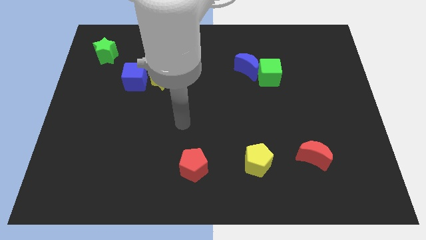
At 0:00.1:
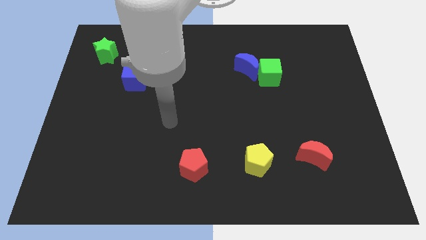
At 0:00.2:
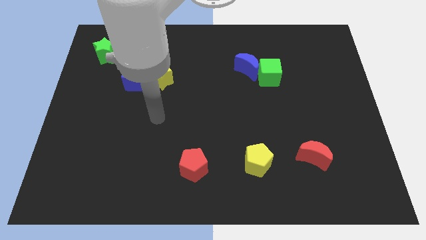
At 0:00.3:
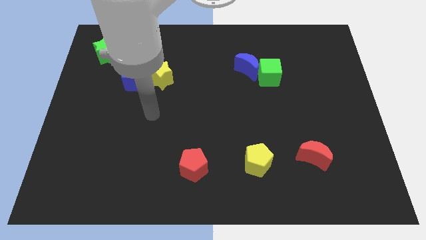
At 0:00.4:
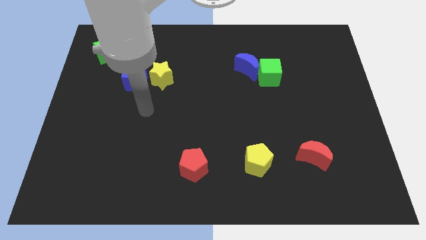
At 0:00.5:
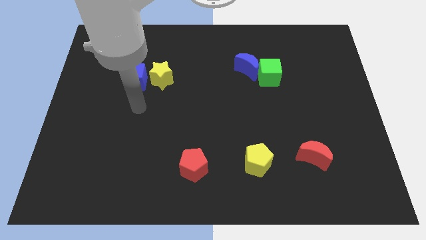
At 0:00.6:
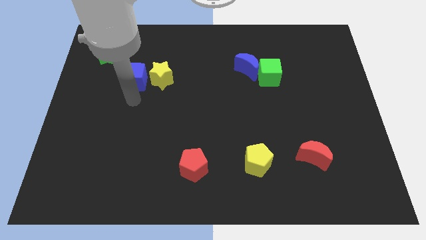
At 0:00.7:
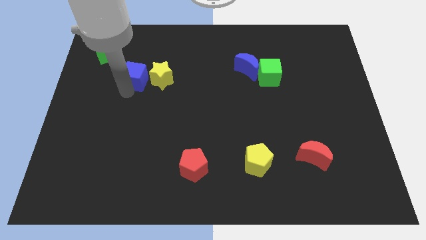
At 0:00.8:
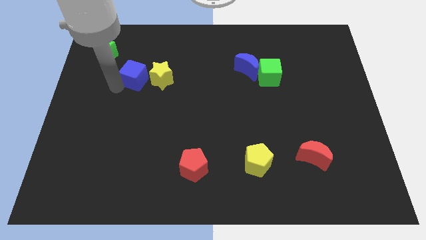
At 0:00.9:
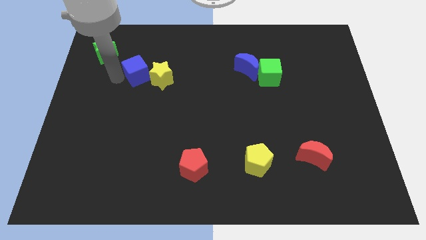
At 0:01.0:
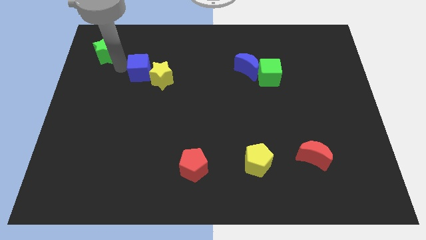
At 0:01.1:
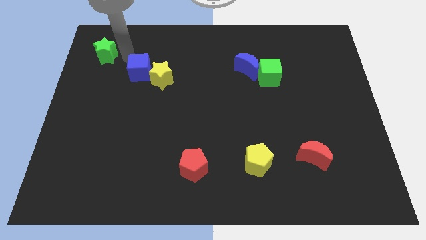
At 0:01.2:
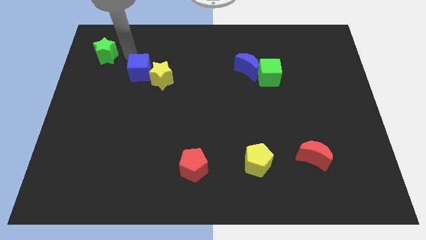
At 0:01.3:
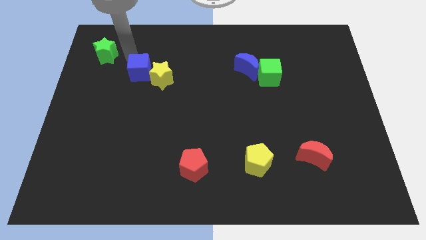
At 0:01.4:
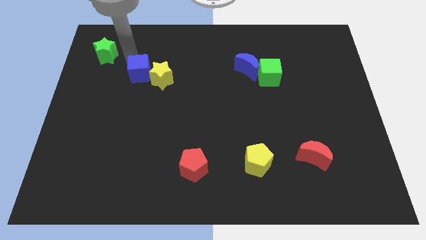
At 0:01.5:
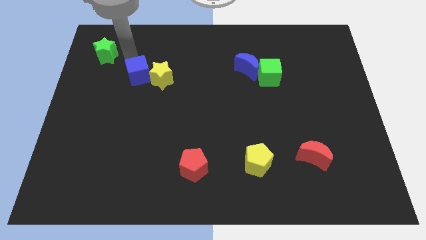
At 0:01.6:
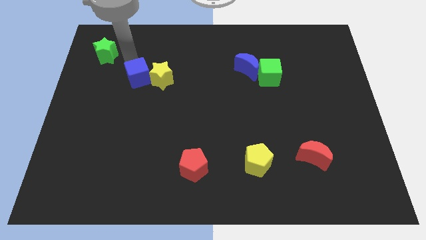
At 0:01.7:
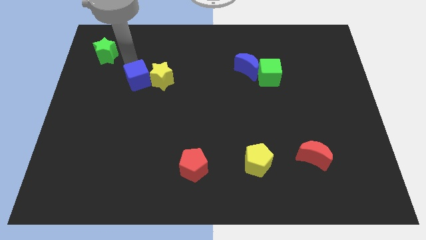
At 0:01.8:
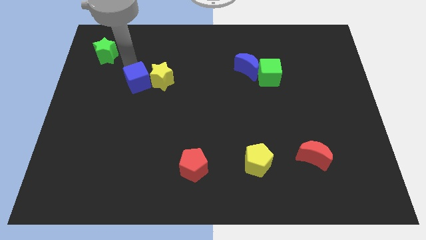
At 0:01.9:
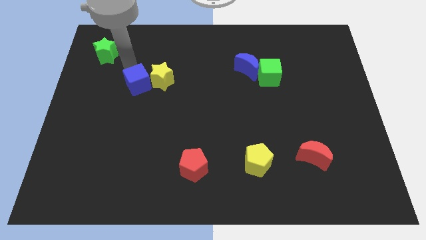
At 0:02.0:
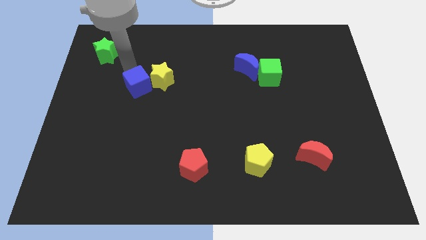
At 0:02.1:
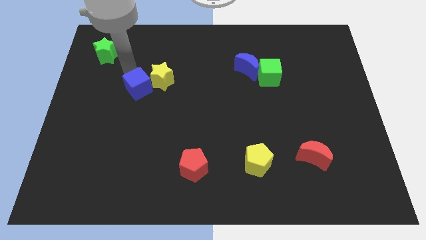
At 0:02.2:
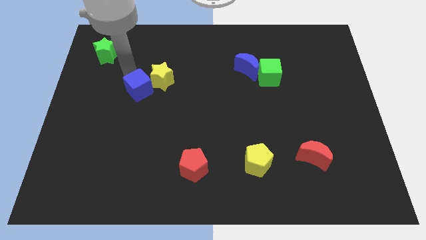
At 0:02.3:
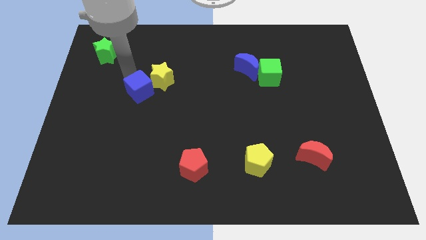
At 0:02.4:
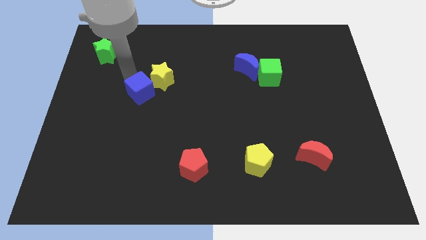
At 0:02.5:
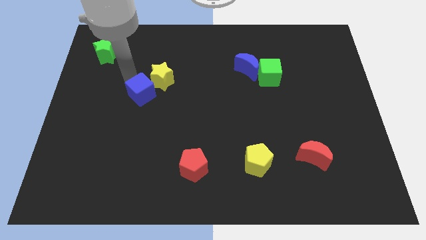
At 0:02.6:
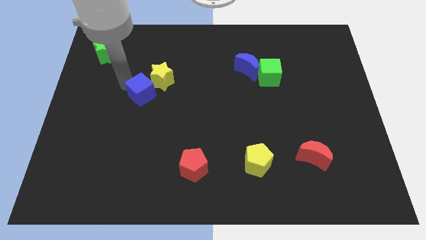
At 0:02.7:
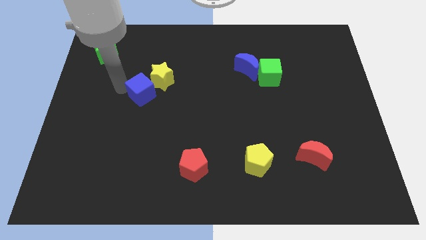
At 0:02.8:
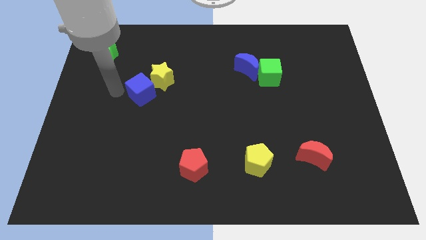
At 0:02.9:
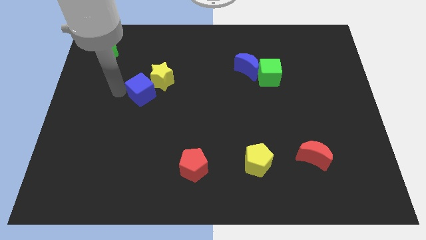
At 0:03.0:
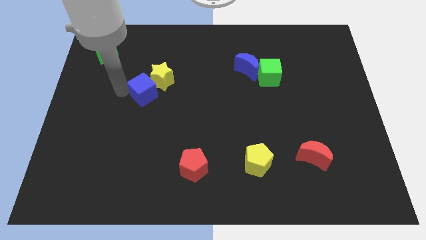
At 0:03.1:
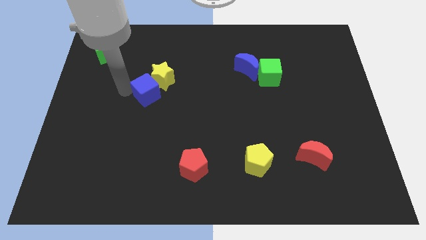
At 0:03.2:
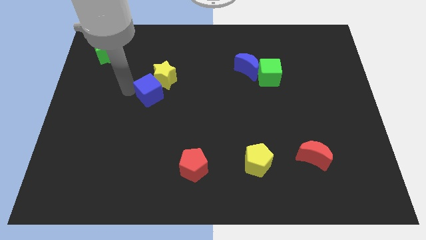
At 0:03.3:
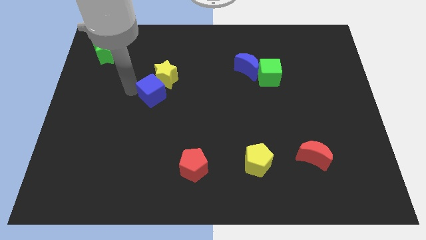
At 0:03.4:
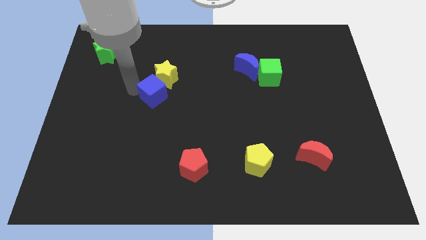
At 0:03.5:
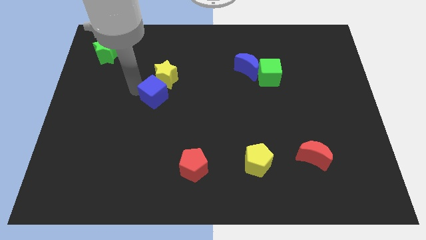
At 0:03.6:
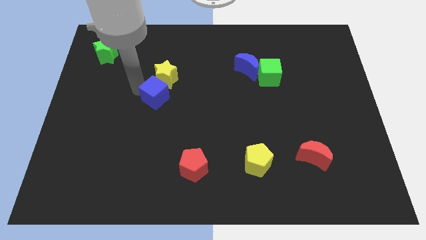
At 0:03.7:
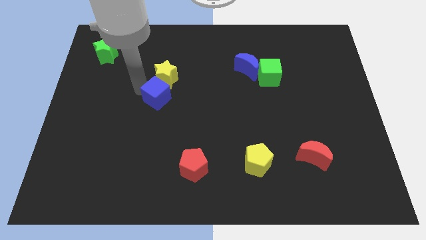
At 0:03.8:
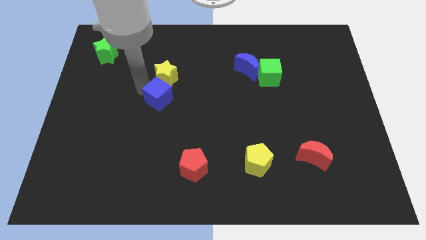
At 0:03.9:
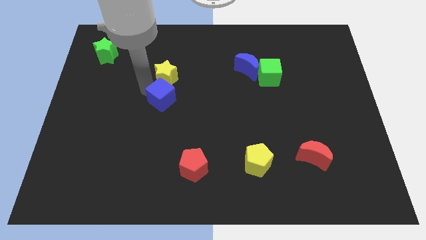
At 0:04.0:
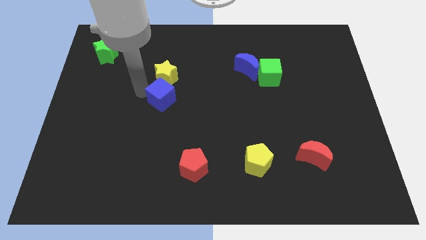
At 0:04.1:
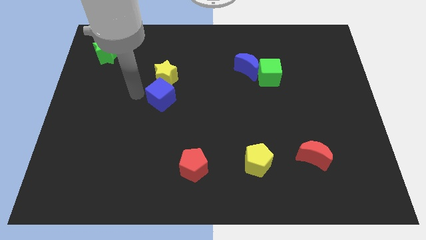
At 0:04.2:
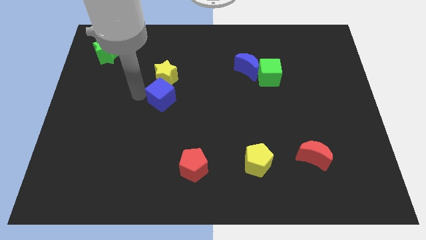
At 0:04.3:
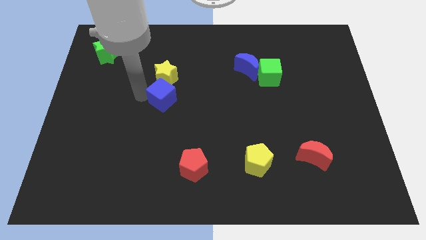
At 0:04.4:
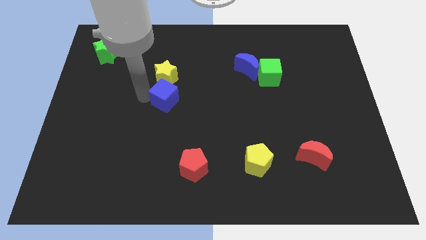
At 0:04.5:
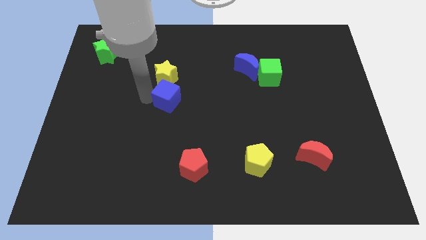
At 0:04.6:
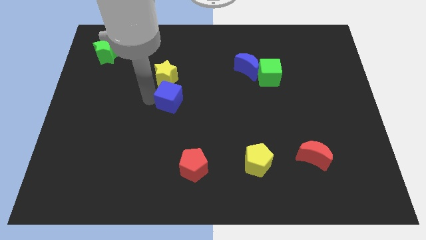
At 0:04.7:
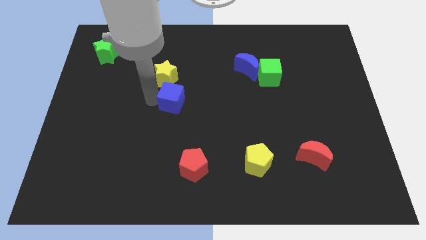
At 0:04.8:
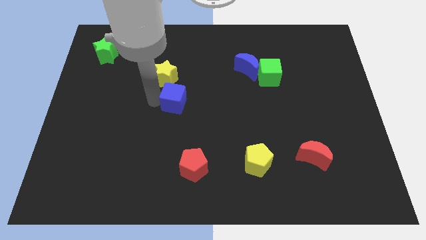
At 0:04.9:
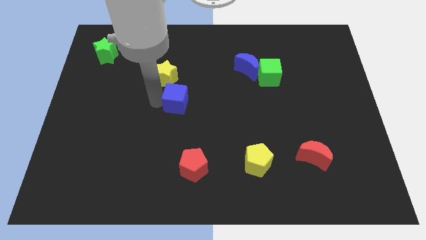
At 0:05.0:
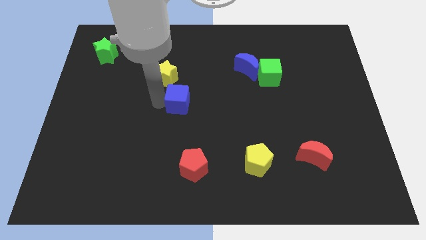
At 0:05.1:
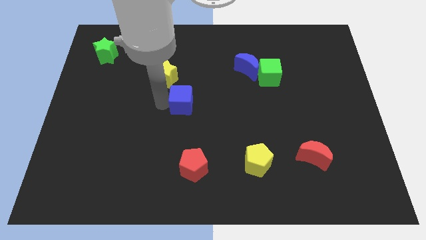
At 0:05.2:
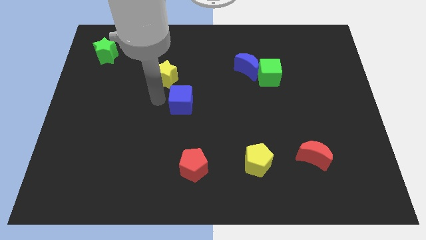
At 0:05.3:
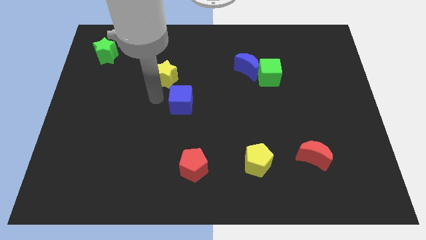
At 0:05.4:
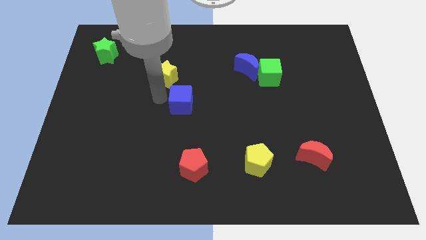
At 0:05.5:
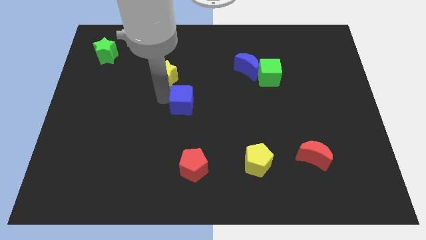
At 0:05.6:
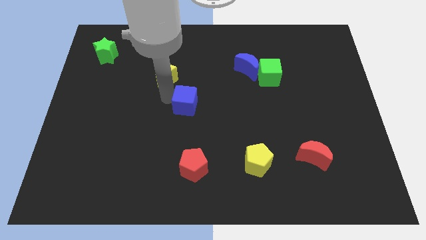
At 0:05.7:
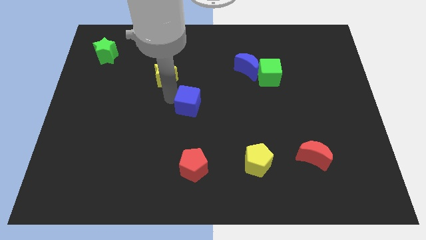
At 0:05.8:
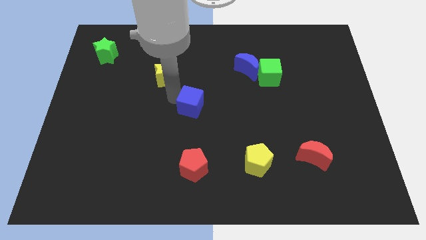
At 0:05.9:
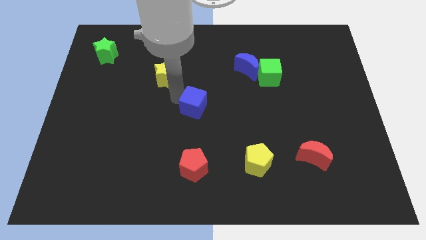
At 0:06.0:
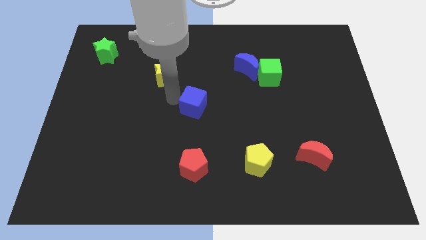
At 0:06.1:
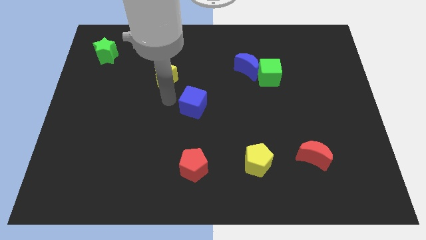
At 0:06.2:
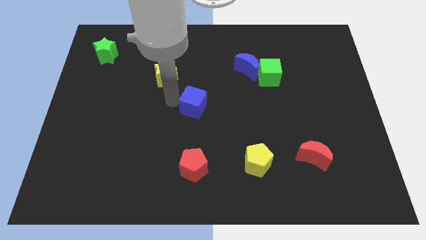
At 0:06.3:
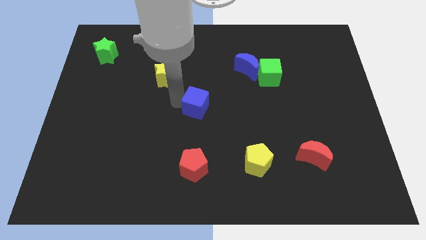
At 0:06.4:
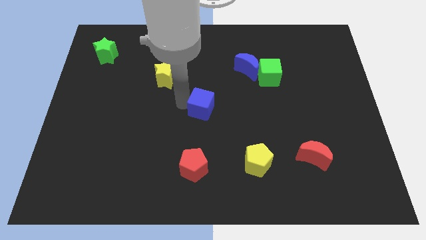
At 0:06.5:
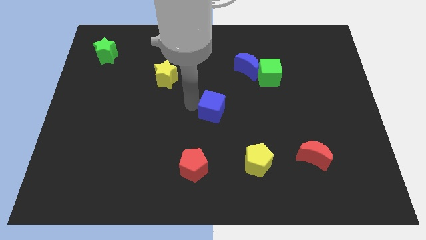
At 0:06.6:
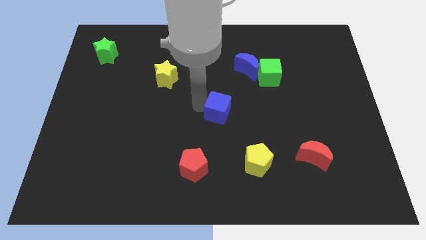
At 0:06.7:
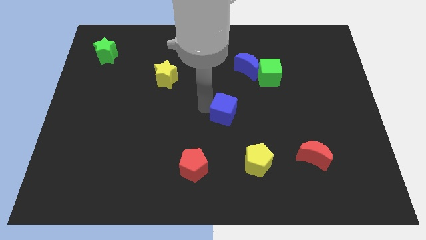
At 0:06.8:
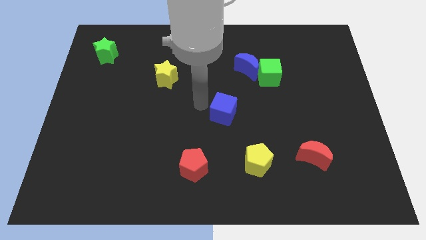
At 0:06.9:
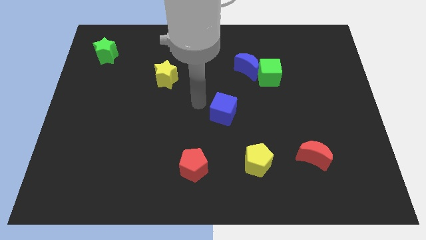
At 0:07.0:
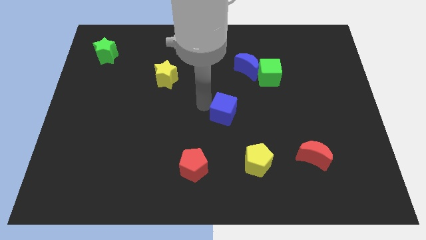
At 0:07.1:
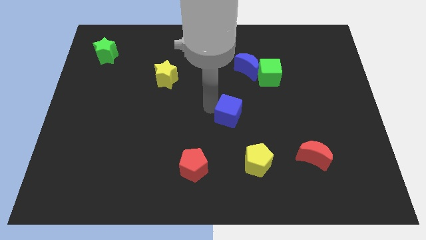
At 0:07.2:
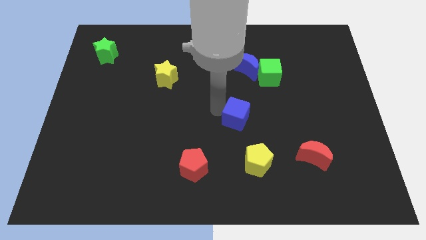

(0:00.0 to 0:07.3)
slide the blue cube above the yellow pentagon

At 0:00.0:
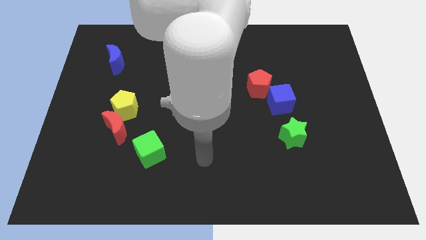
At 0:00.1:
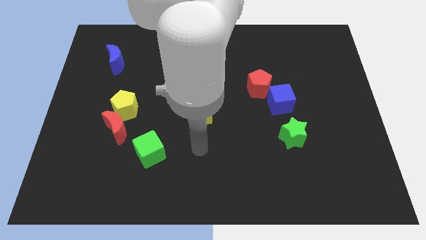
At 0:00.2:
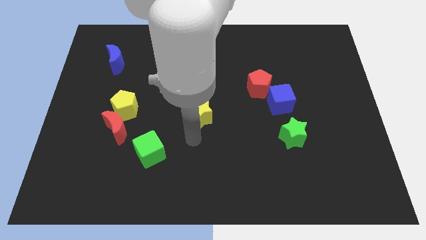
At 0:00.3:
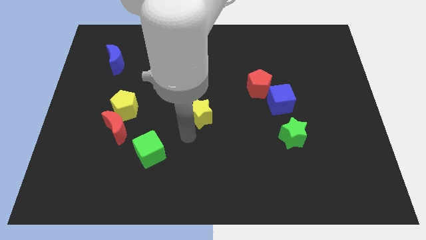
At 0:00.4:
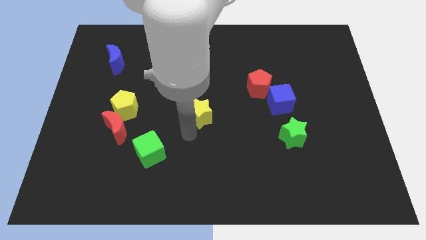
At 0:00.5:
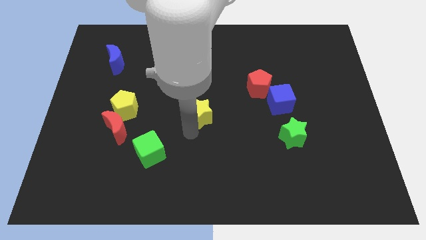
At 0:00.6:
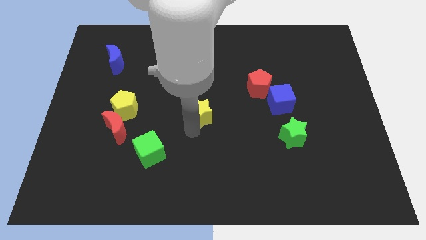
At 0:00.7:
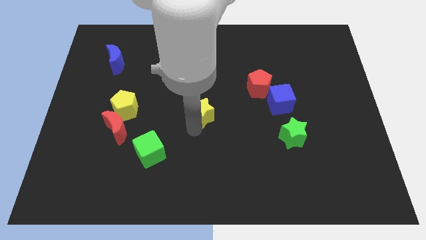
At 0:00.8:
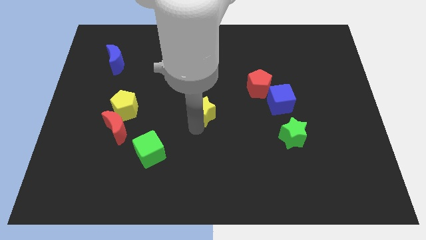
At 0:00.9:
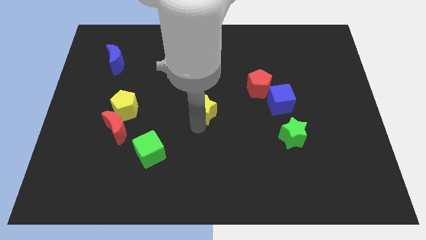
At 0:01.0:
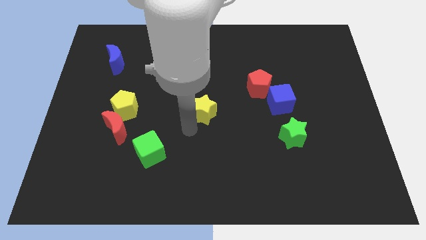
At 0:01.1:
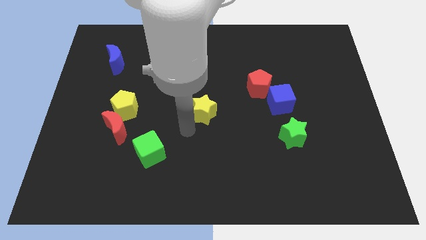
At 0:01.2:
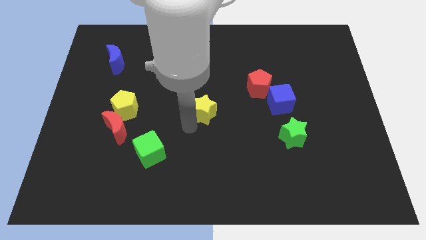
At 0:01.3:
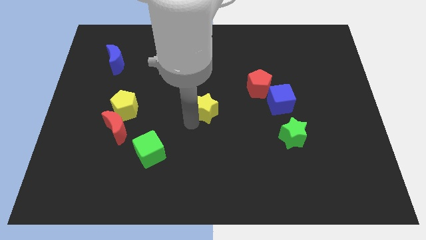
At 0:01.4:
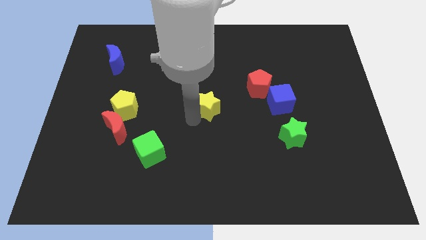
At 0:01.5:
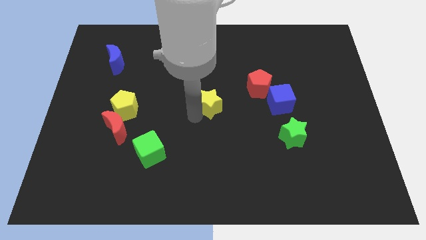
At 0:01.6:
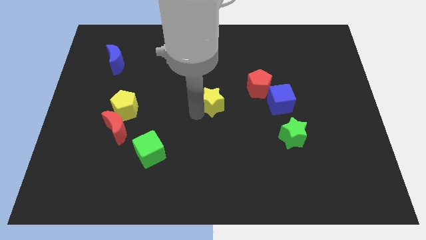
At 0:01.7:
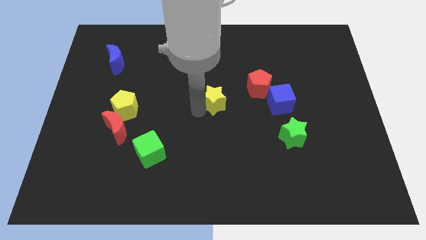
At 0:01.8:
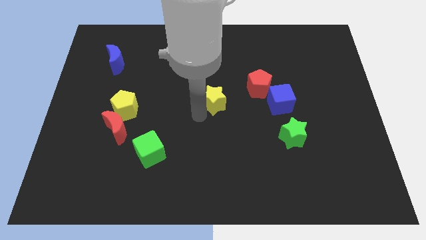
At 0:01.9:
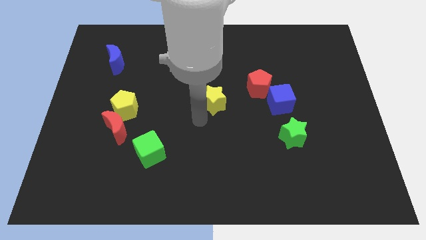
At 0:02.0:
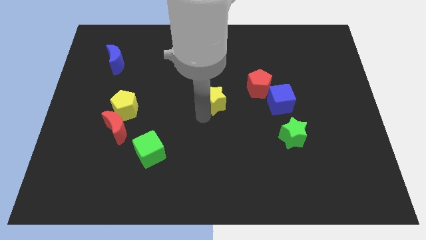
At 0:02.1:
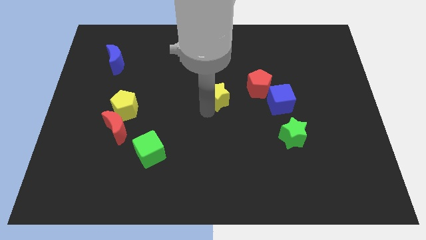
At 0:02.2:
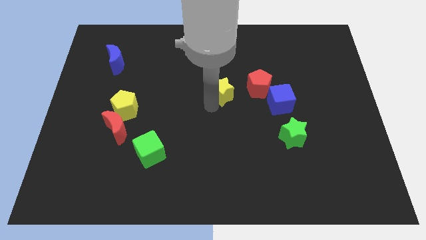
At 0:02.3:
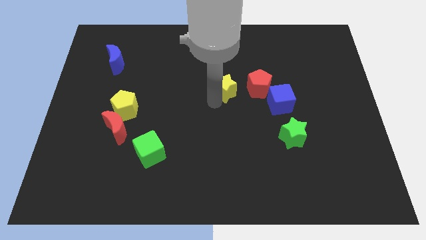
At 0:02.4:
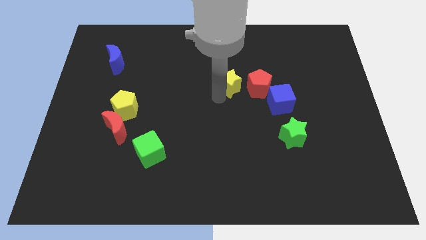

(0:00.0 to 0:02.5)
move the yellow star to the top left of the red pentagon
